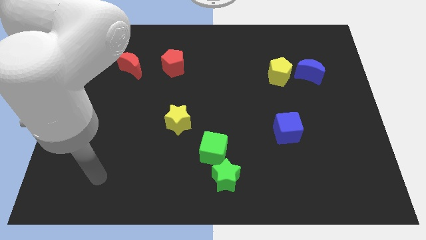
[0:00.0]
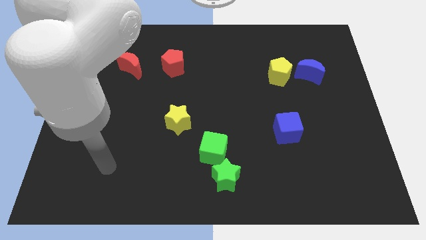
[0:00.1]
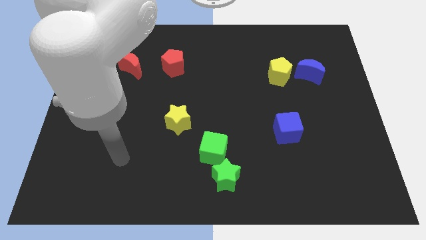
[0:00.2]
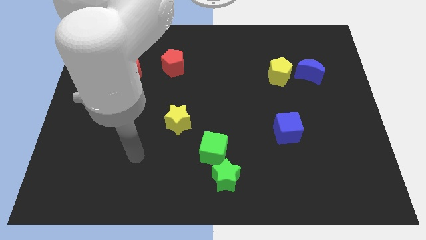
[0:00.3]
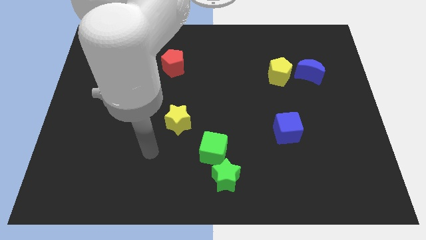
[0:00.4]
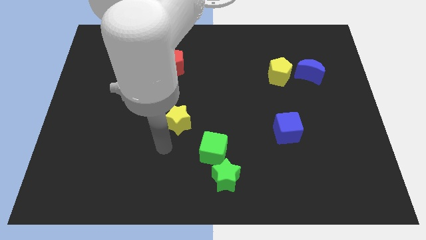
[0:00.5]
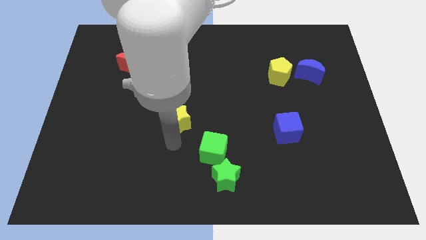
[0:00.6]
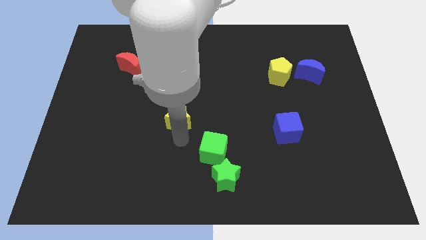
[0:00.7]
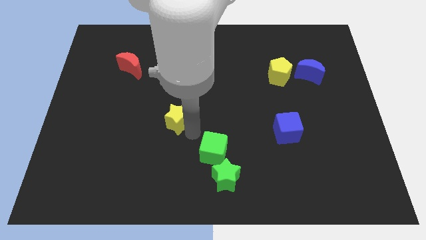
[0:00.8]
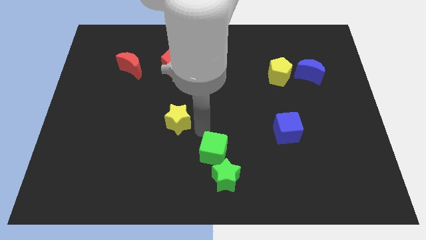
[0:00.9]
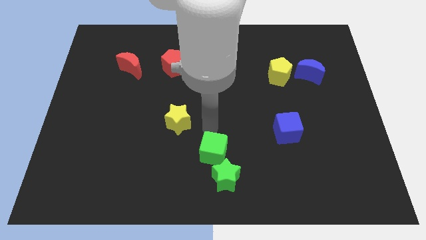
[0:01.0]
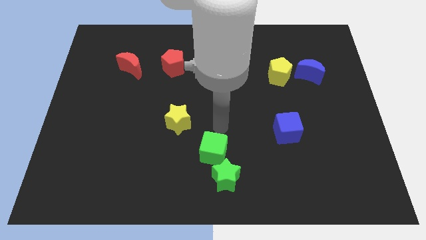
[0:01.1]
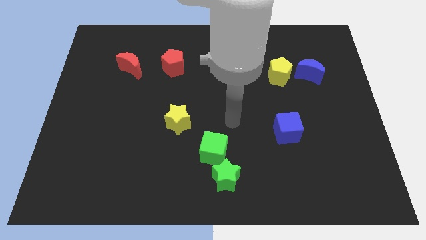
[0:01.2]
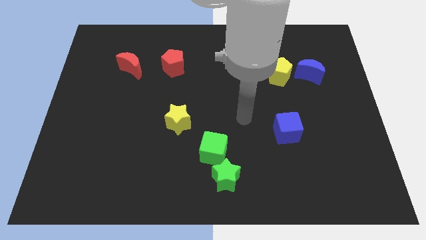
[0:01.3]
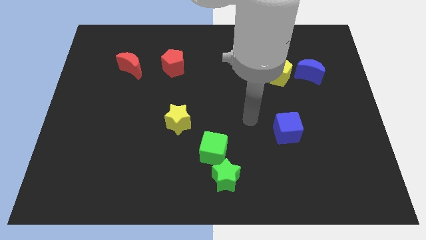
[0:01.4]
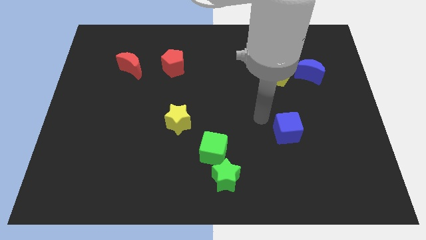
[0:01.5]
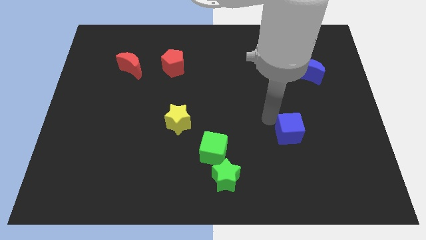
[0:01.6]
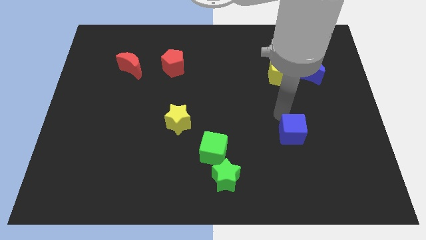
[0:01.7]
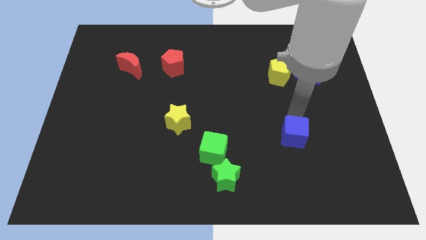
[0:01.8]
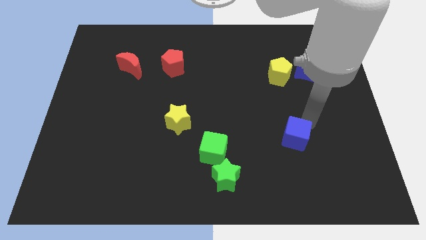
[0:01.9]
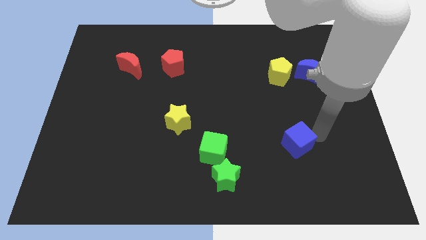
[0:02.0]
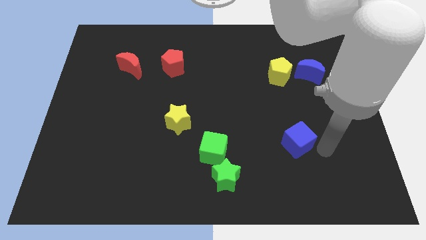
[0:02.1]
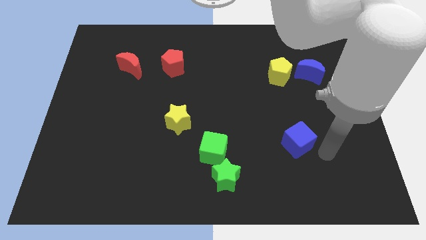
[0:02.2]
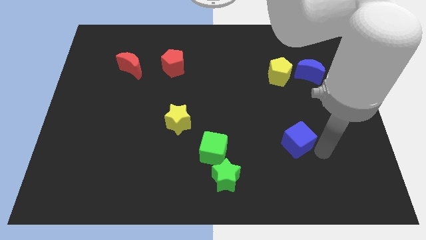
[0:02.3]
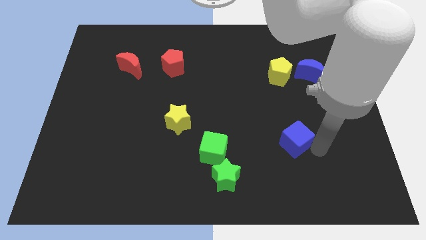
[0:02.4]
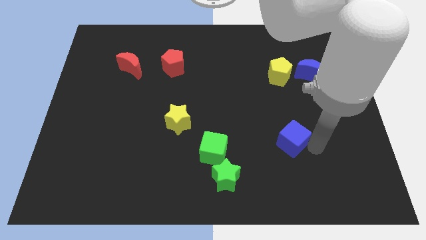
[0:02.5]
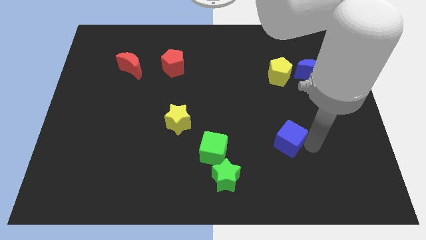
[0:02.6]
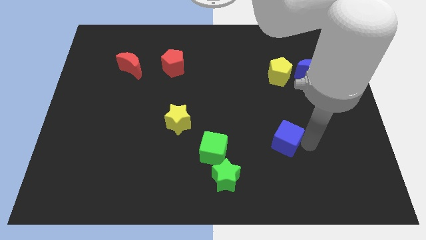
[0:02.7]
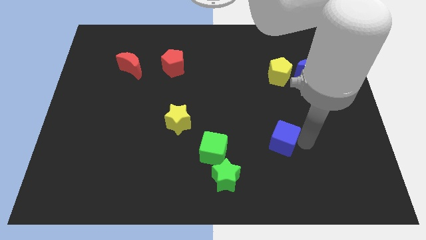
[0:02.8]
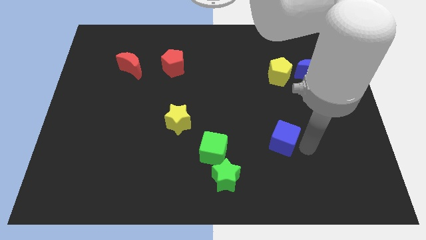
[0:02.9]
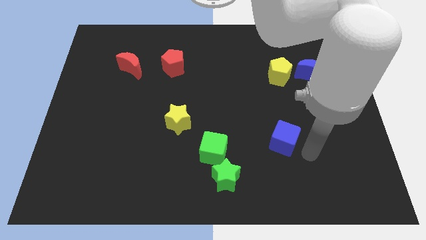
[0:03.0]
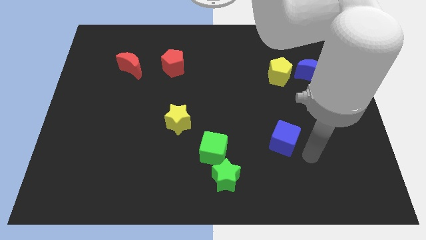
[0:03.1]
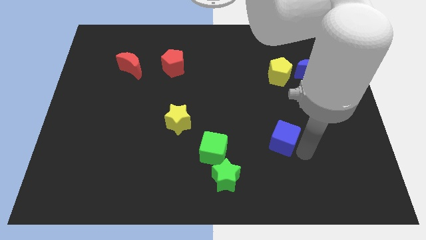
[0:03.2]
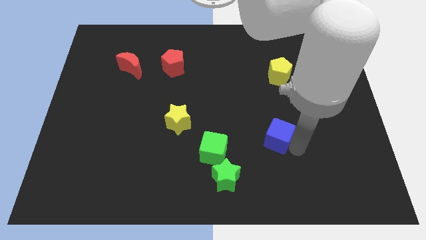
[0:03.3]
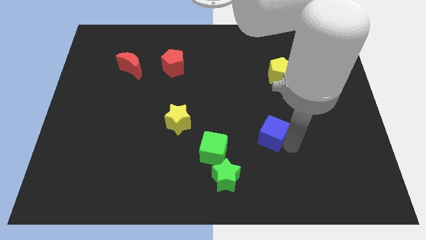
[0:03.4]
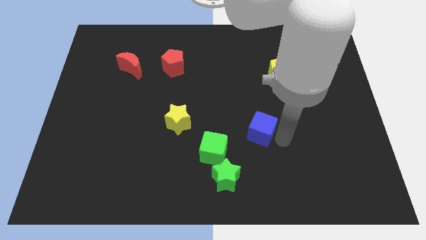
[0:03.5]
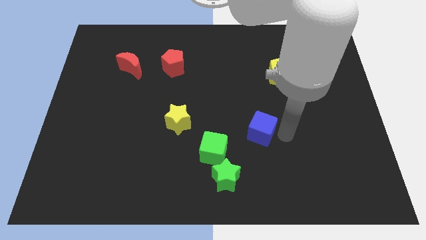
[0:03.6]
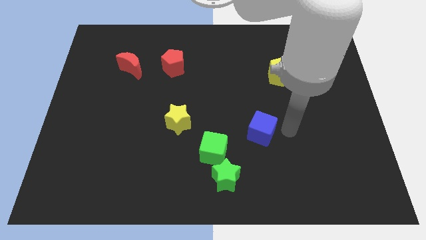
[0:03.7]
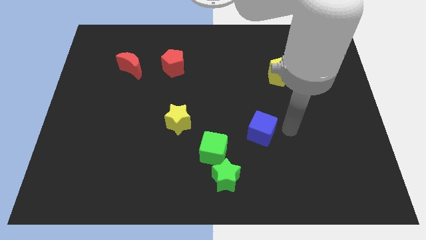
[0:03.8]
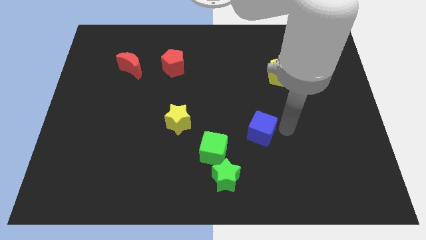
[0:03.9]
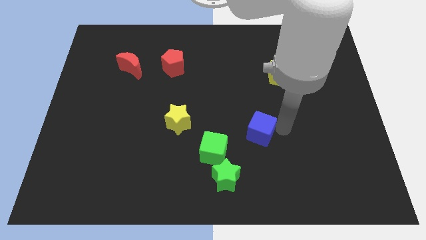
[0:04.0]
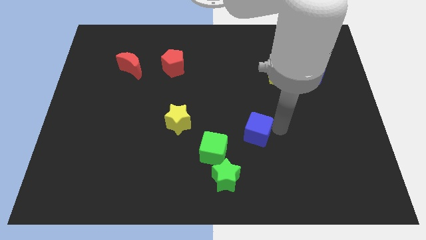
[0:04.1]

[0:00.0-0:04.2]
slightly move the blue cube to the left

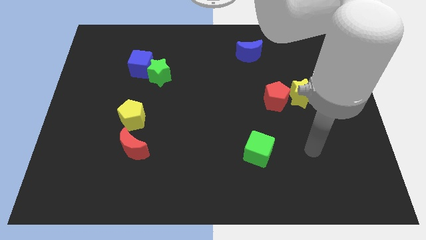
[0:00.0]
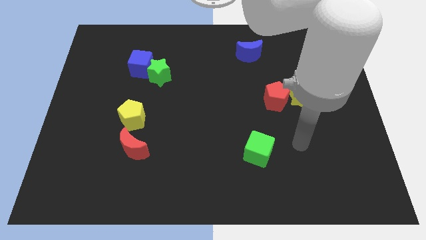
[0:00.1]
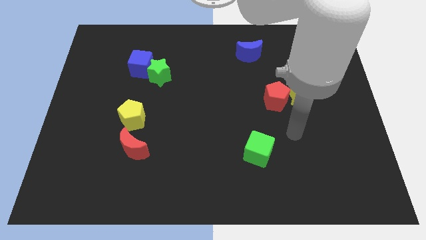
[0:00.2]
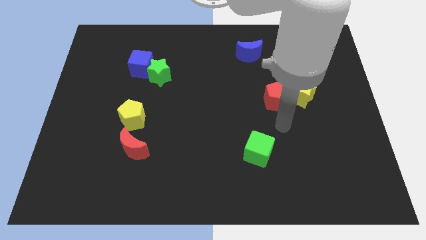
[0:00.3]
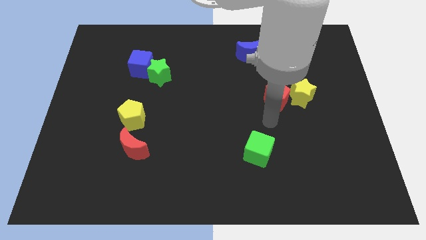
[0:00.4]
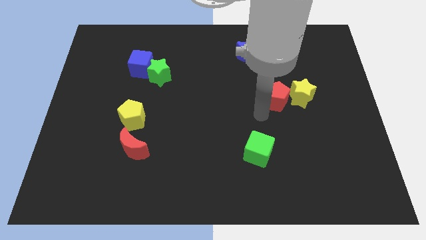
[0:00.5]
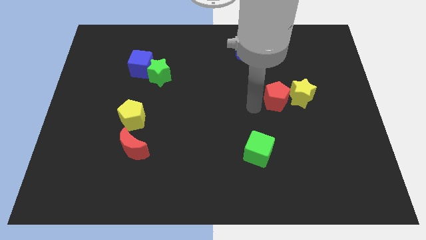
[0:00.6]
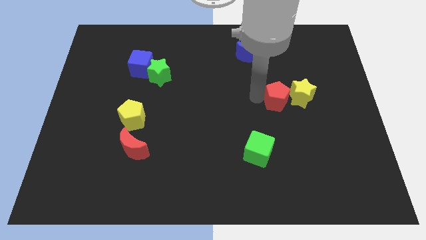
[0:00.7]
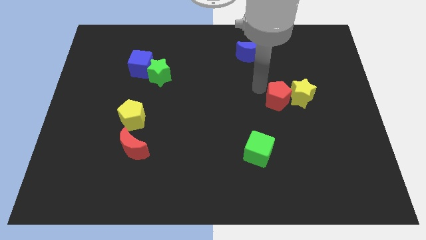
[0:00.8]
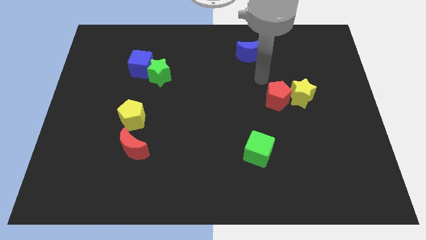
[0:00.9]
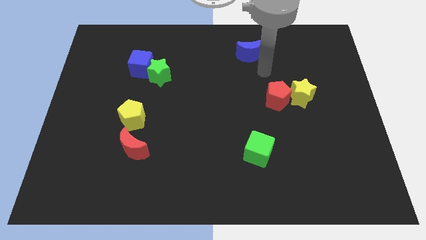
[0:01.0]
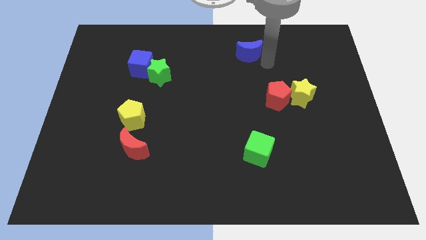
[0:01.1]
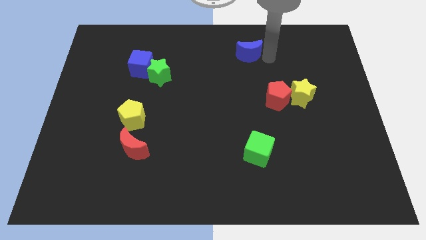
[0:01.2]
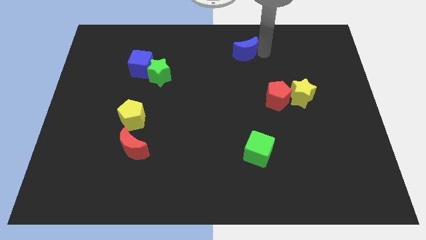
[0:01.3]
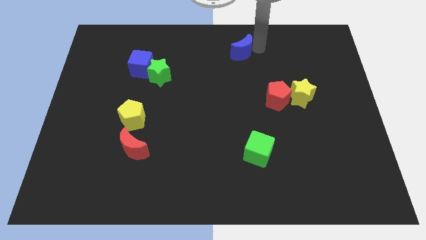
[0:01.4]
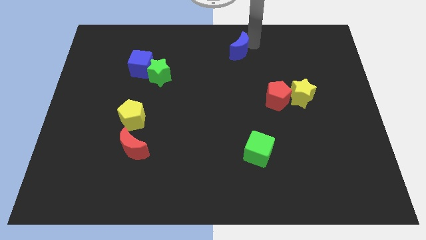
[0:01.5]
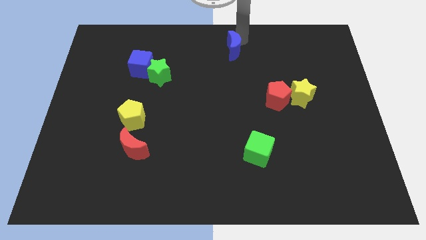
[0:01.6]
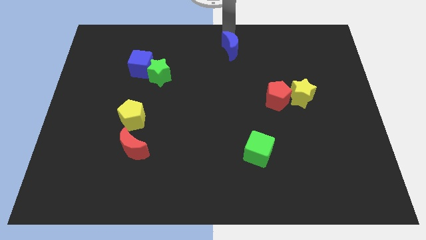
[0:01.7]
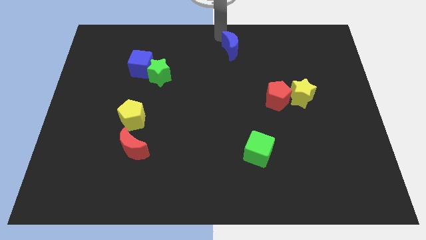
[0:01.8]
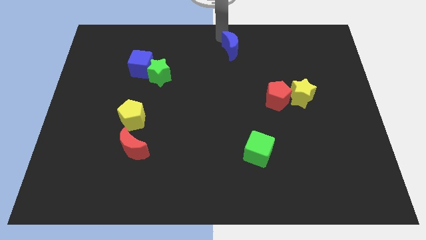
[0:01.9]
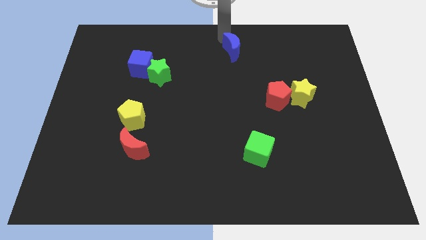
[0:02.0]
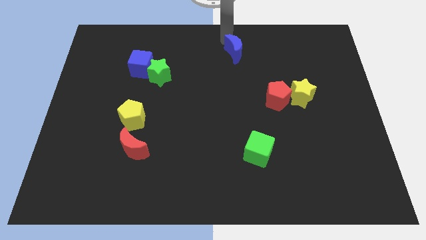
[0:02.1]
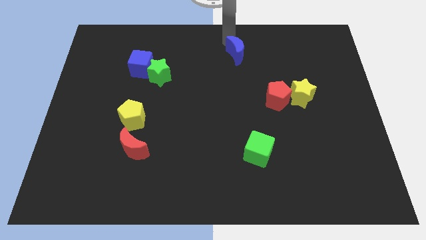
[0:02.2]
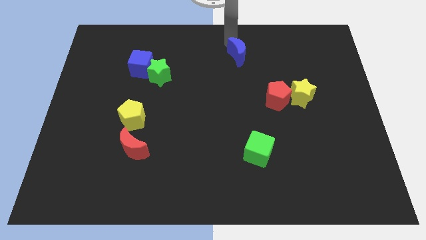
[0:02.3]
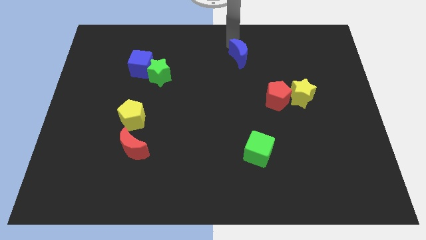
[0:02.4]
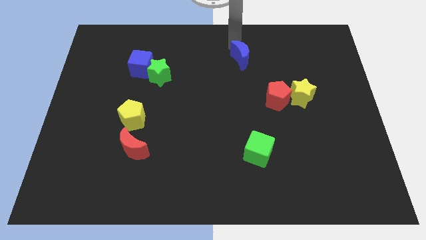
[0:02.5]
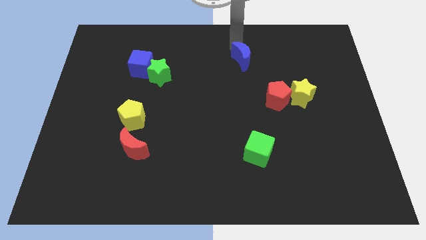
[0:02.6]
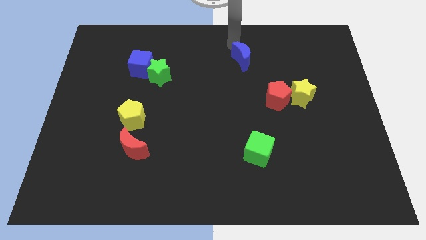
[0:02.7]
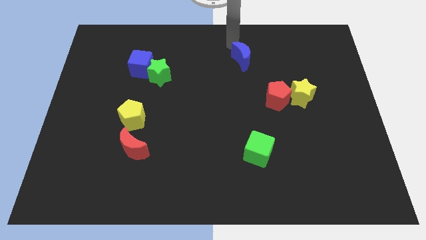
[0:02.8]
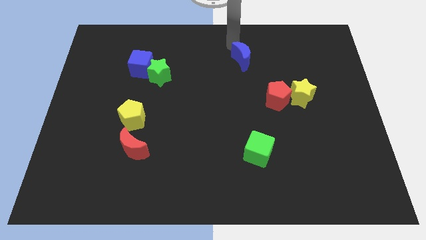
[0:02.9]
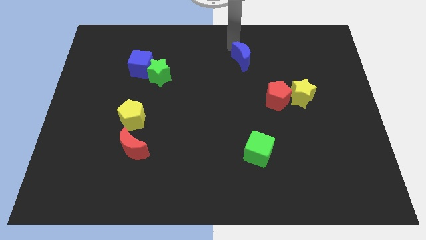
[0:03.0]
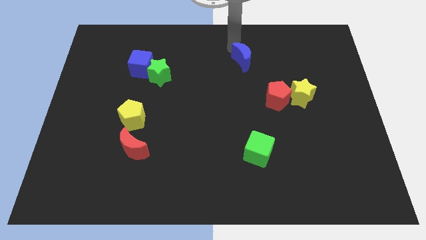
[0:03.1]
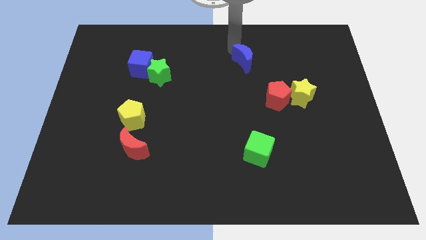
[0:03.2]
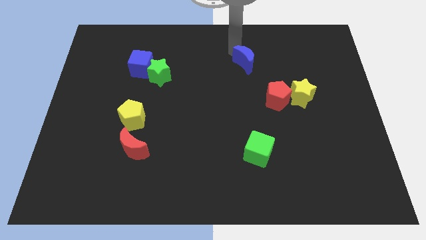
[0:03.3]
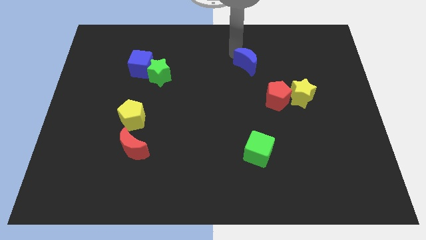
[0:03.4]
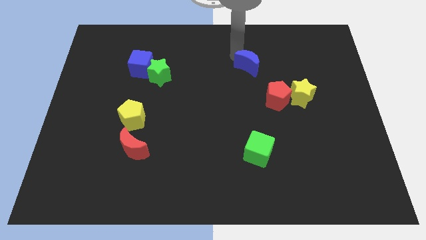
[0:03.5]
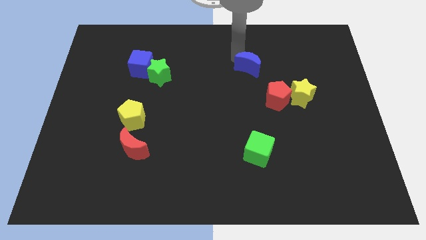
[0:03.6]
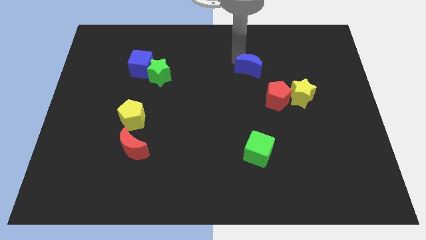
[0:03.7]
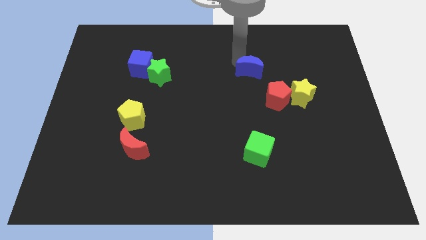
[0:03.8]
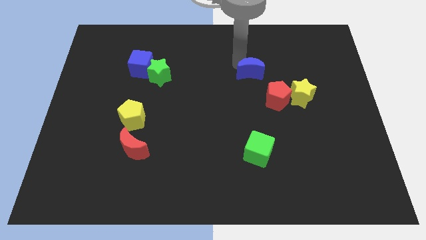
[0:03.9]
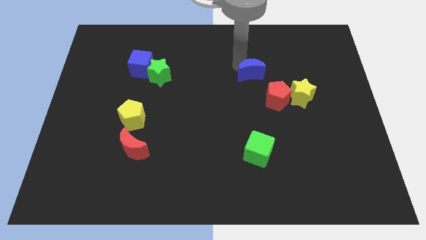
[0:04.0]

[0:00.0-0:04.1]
slide the blue moon downwards a bit
